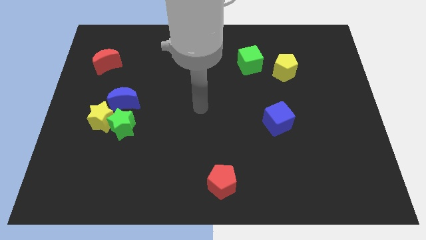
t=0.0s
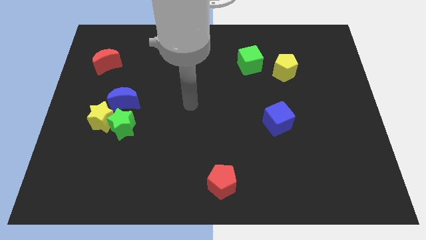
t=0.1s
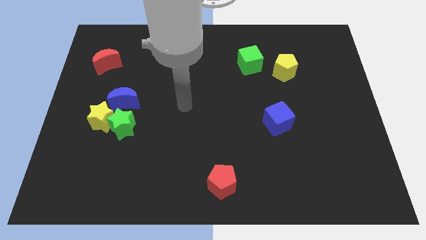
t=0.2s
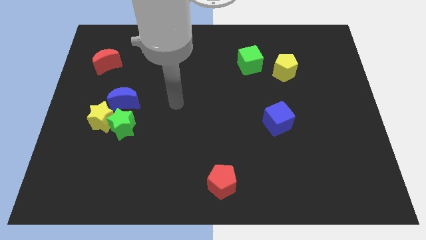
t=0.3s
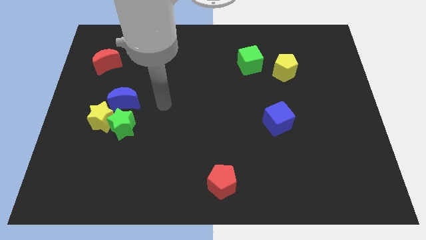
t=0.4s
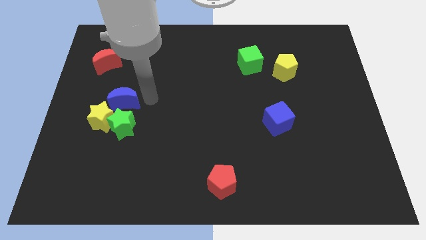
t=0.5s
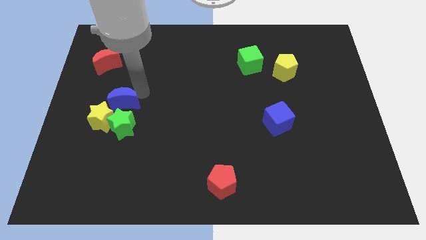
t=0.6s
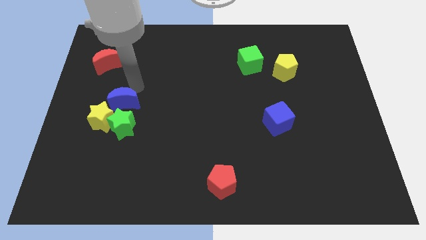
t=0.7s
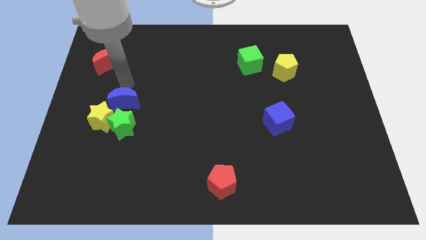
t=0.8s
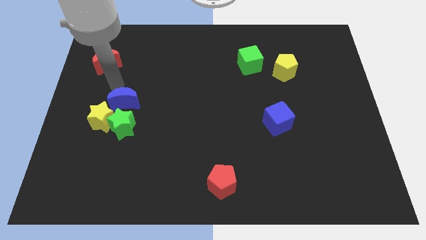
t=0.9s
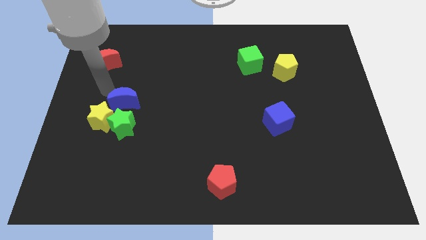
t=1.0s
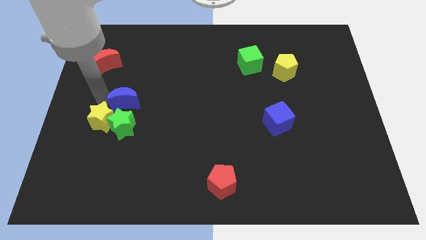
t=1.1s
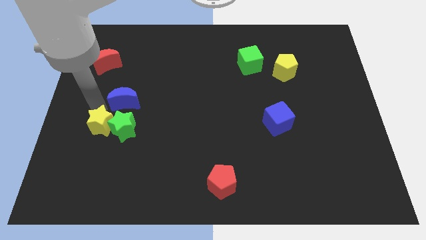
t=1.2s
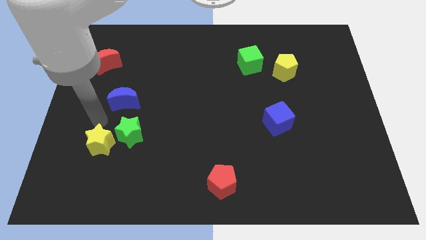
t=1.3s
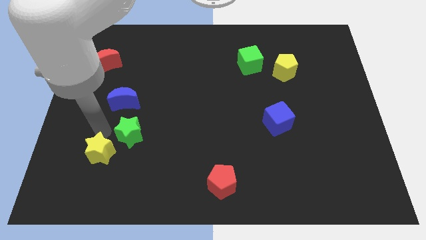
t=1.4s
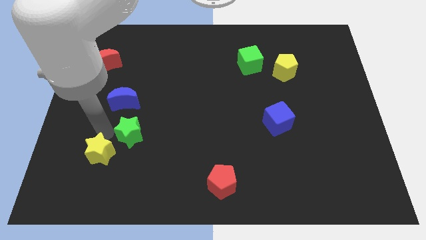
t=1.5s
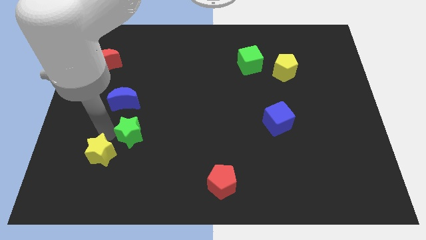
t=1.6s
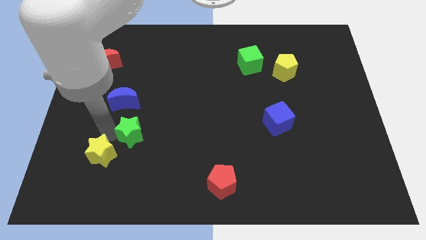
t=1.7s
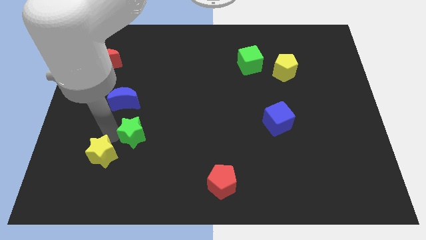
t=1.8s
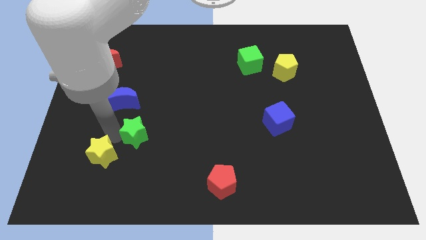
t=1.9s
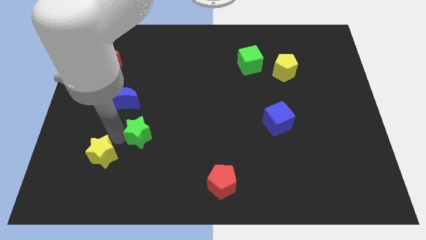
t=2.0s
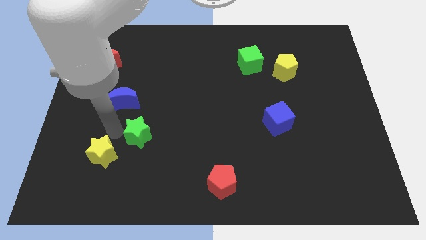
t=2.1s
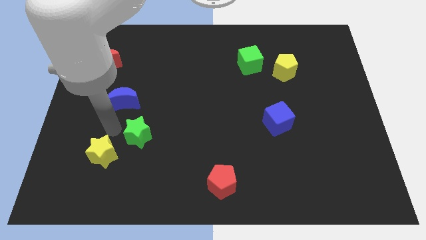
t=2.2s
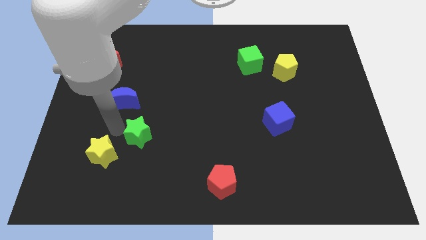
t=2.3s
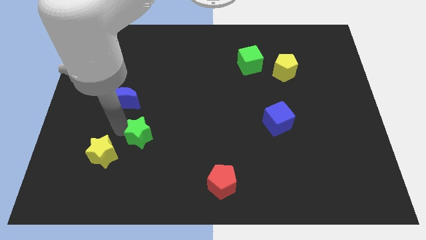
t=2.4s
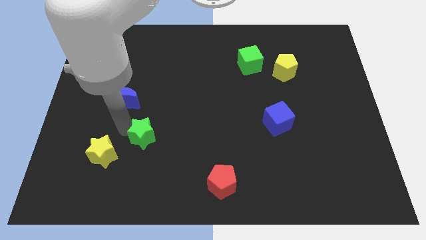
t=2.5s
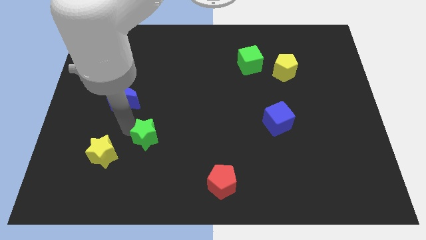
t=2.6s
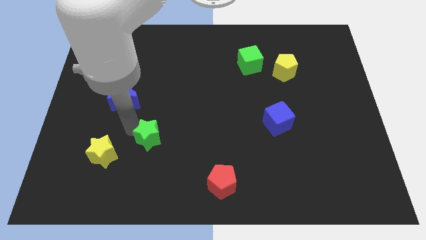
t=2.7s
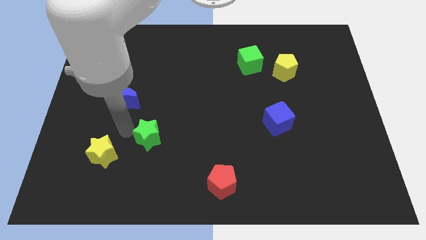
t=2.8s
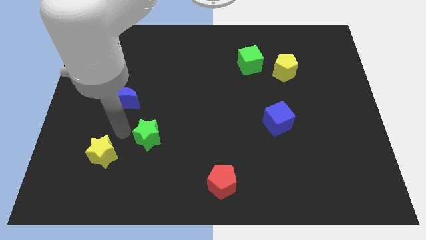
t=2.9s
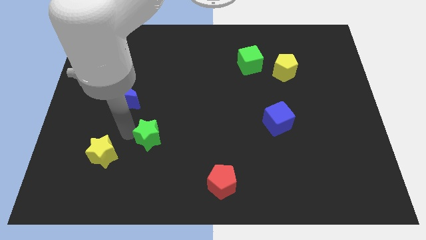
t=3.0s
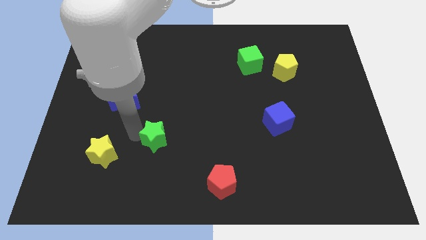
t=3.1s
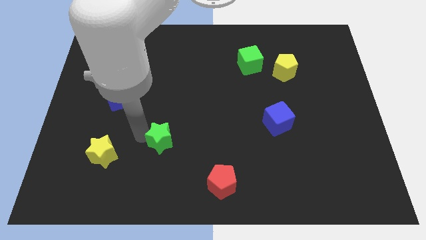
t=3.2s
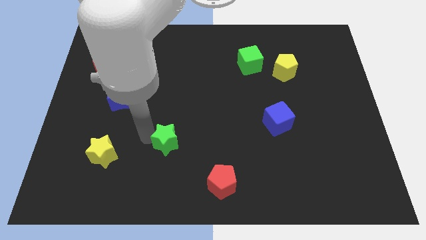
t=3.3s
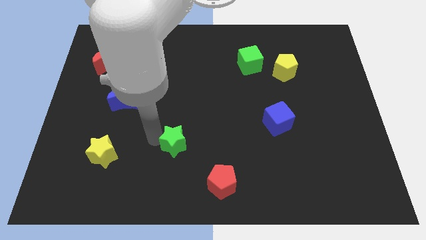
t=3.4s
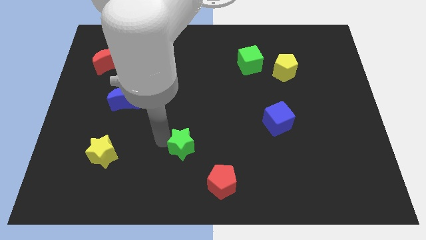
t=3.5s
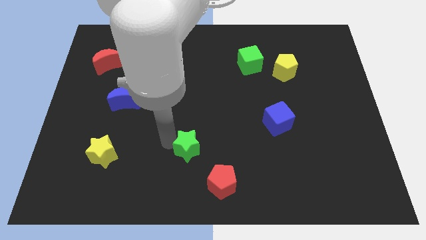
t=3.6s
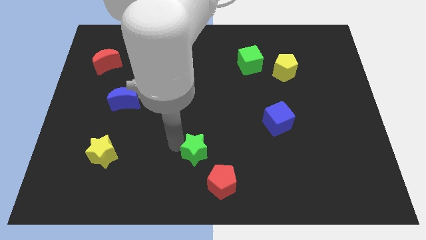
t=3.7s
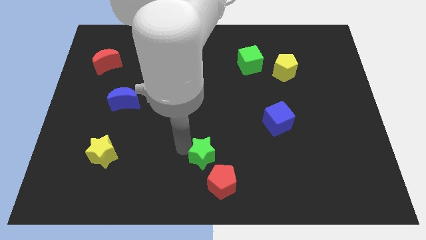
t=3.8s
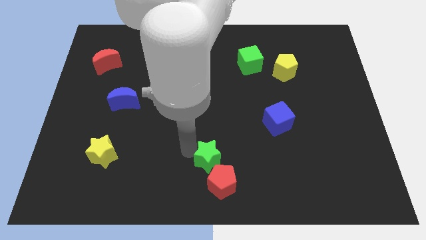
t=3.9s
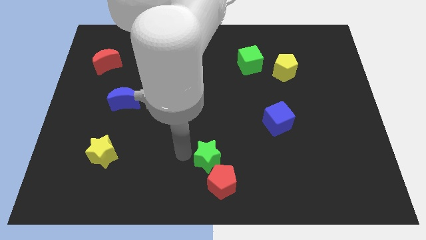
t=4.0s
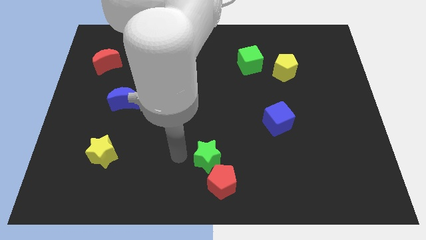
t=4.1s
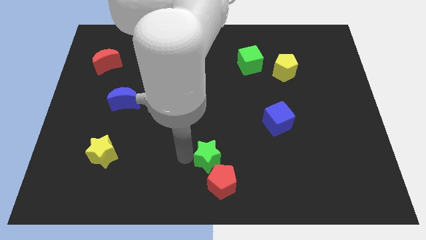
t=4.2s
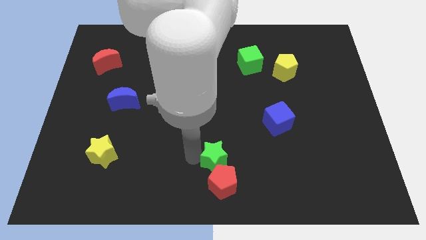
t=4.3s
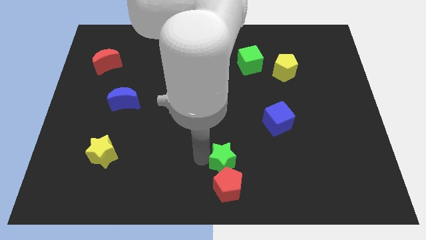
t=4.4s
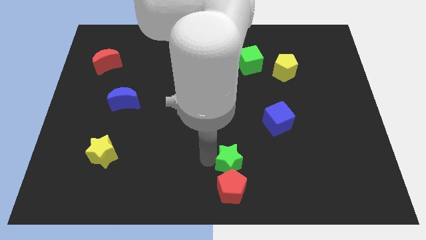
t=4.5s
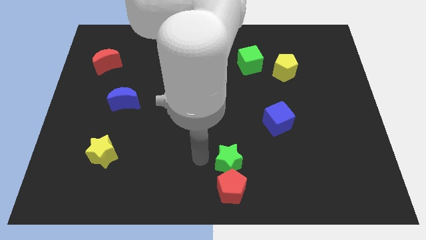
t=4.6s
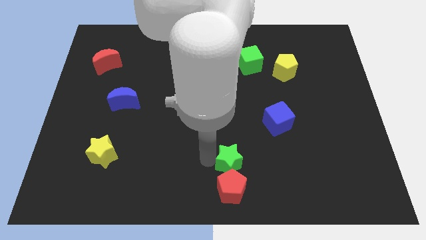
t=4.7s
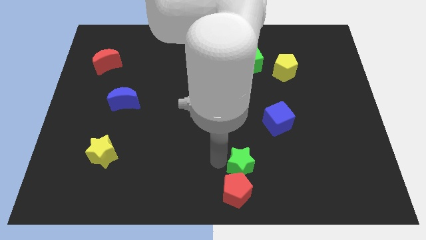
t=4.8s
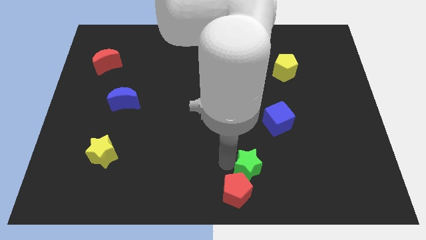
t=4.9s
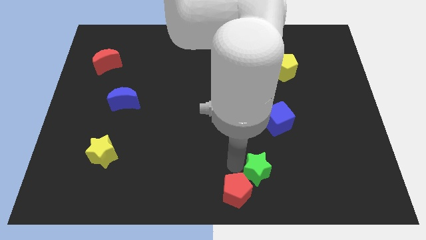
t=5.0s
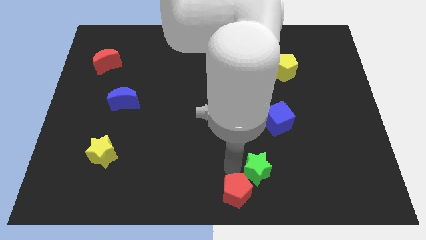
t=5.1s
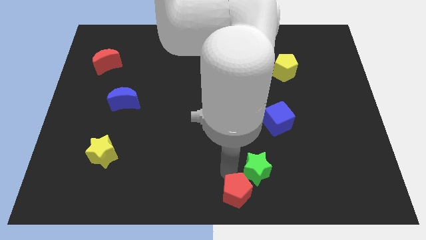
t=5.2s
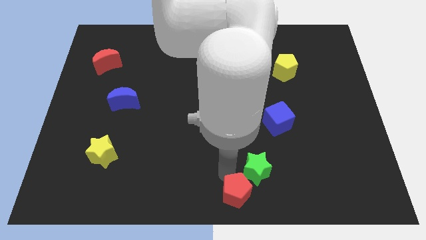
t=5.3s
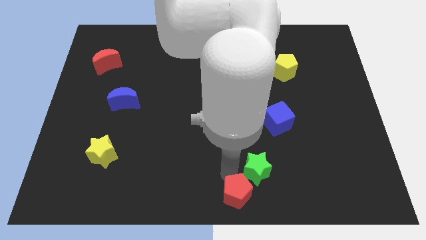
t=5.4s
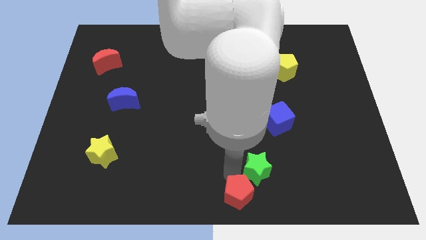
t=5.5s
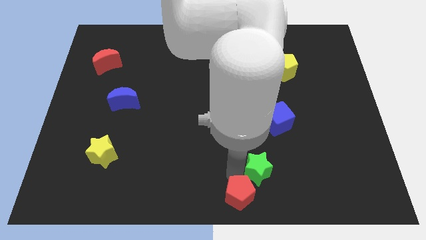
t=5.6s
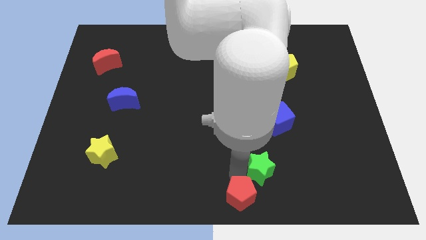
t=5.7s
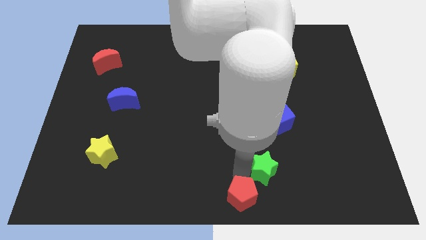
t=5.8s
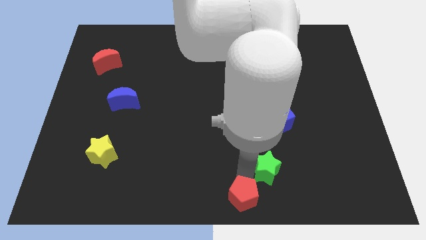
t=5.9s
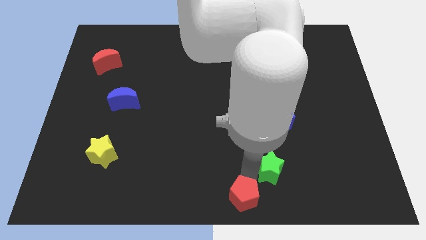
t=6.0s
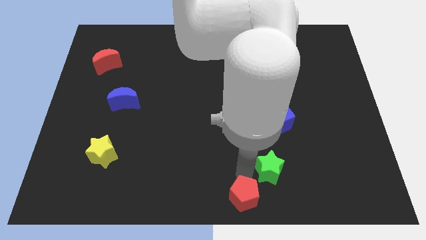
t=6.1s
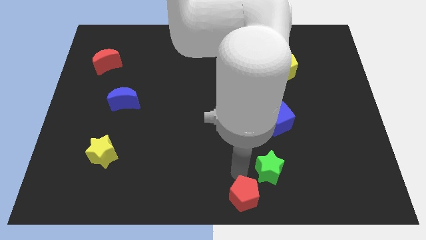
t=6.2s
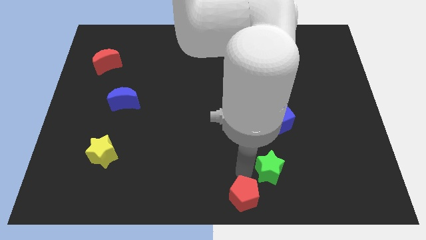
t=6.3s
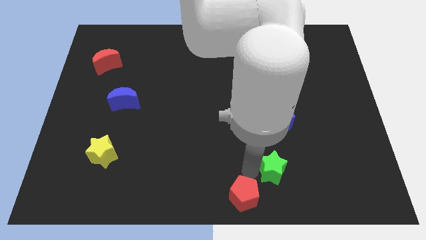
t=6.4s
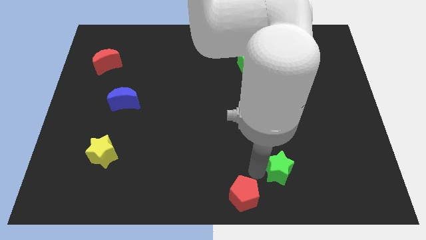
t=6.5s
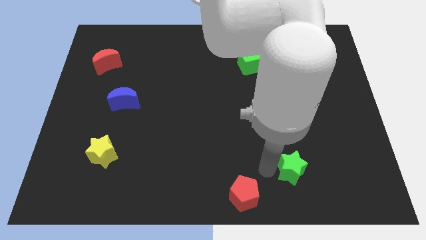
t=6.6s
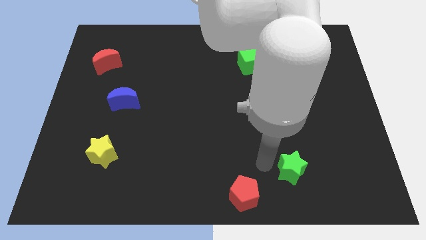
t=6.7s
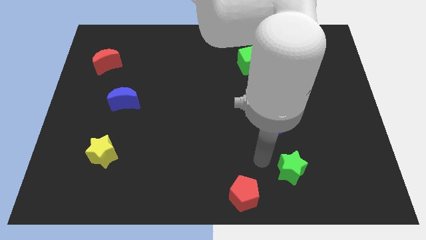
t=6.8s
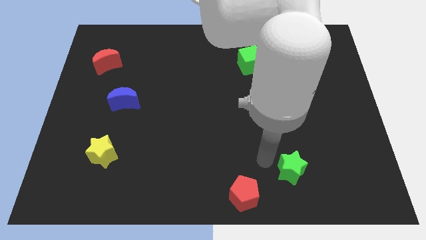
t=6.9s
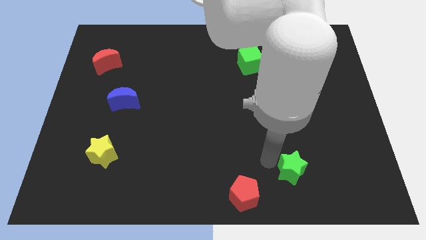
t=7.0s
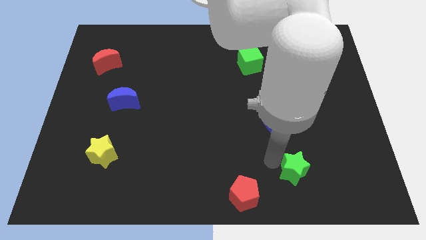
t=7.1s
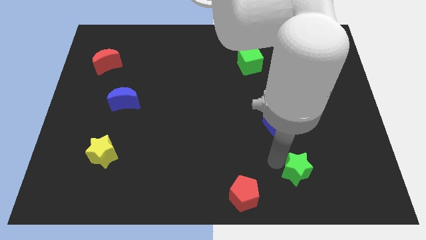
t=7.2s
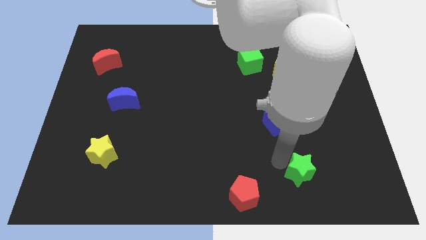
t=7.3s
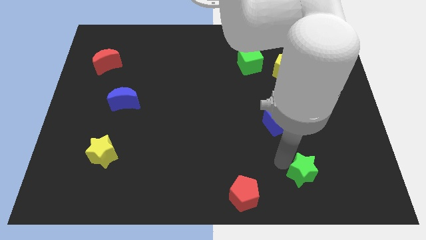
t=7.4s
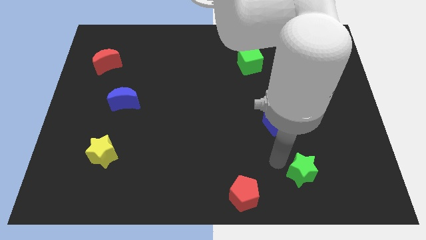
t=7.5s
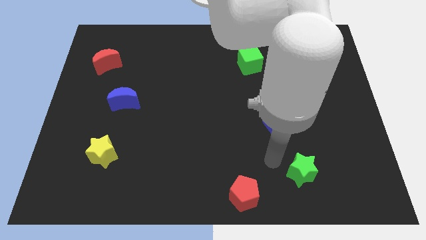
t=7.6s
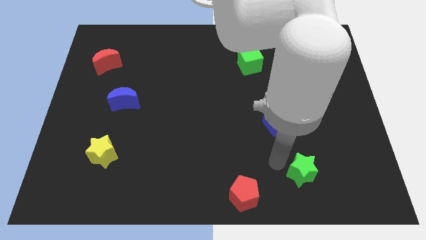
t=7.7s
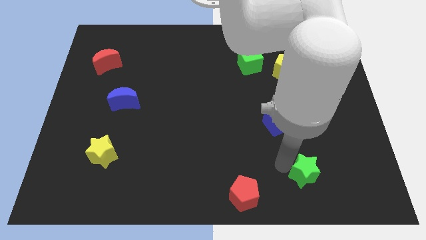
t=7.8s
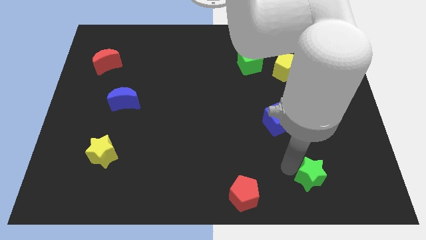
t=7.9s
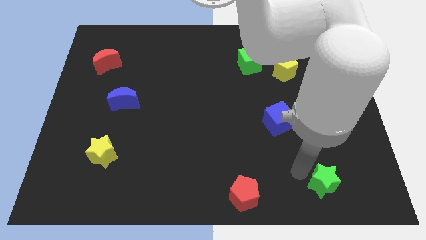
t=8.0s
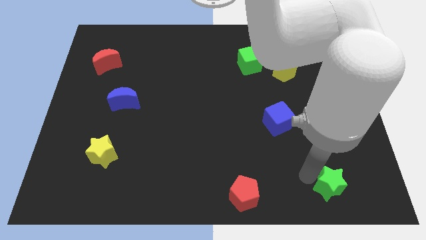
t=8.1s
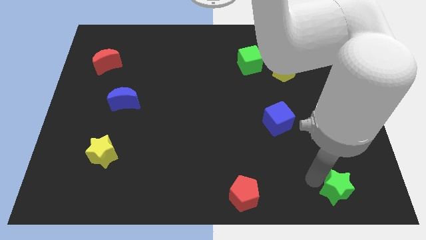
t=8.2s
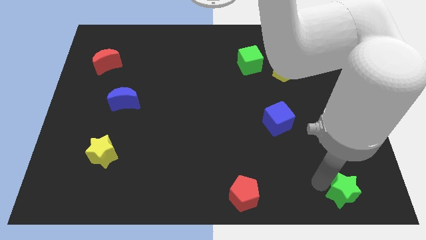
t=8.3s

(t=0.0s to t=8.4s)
put the green star to the bottom right corner

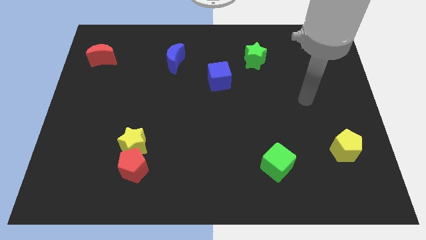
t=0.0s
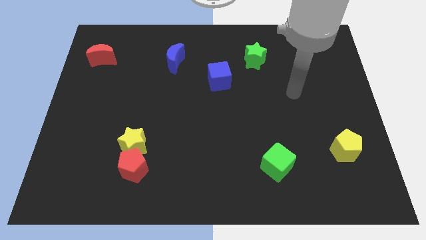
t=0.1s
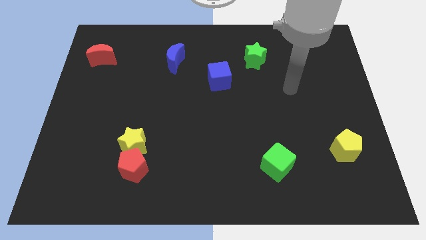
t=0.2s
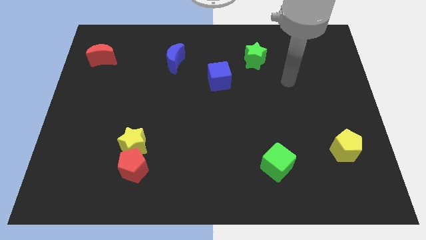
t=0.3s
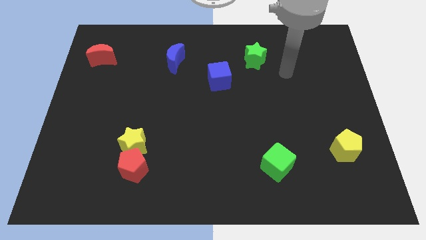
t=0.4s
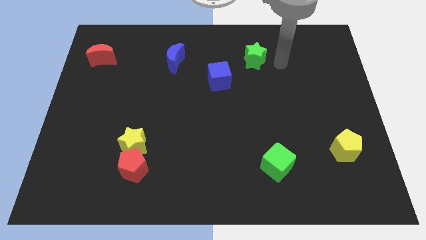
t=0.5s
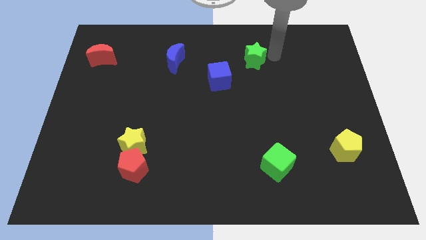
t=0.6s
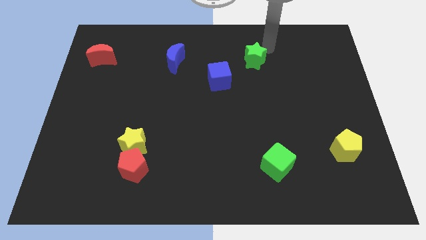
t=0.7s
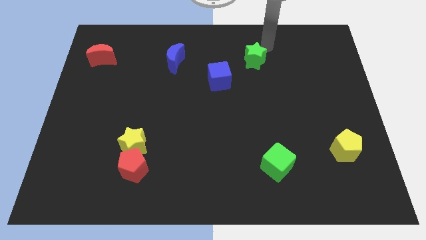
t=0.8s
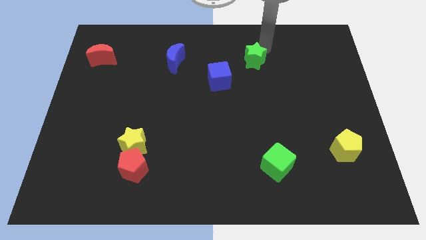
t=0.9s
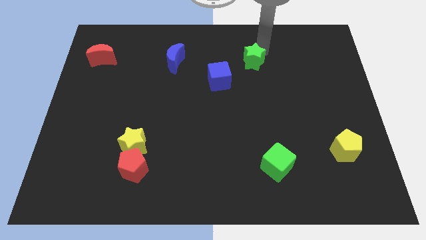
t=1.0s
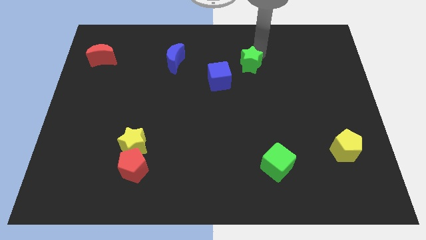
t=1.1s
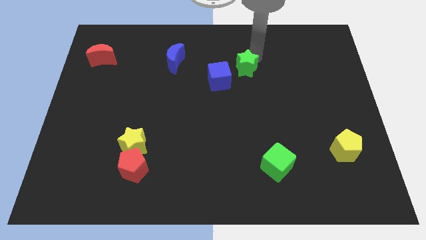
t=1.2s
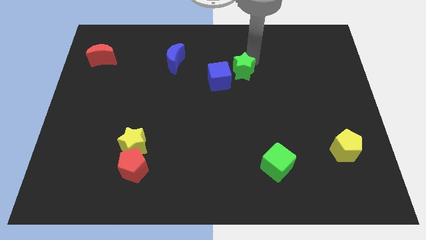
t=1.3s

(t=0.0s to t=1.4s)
move the green star to the center
